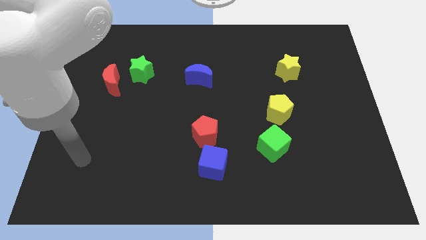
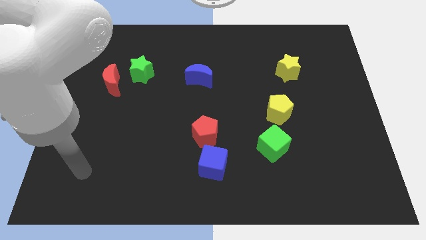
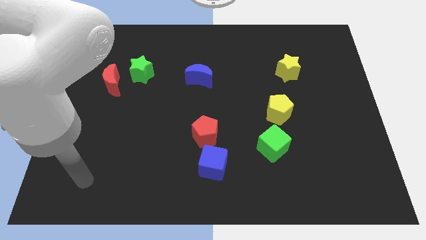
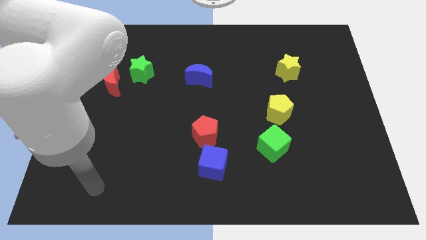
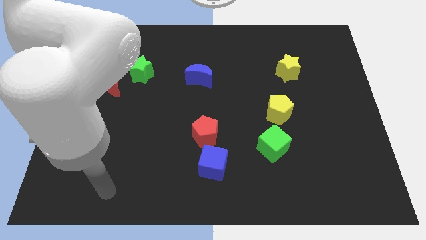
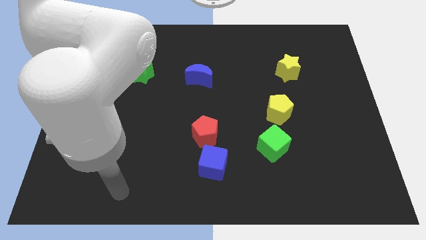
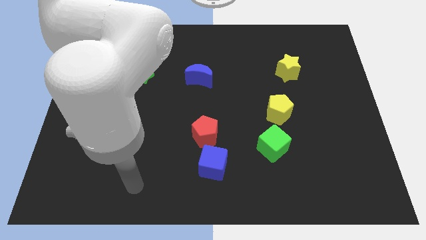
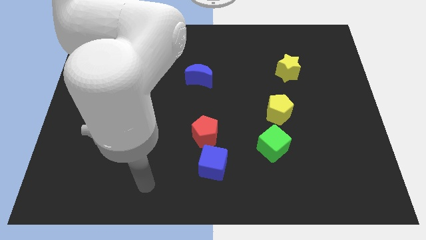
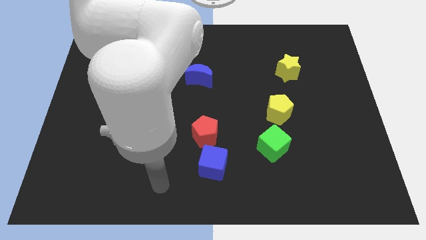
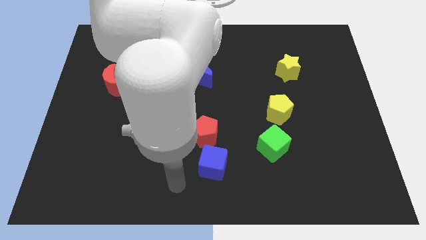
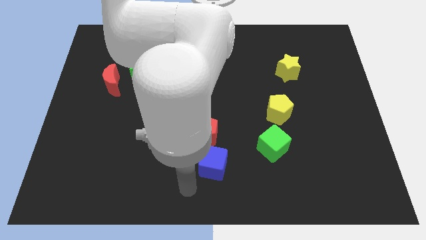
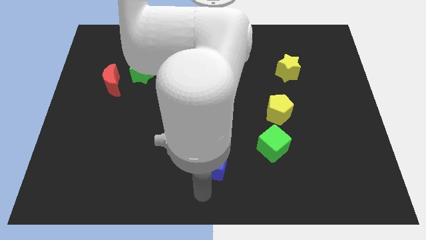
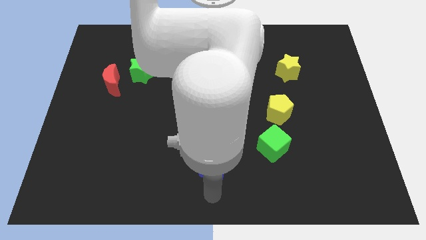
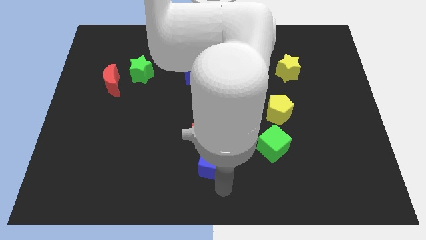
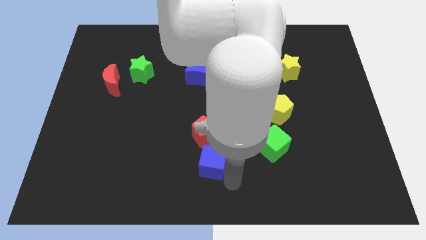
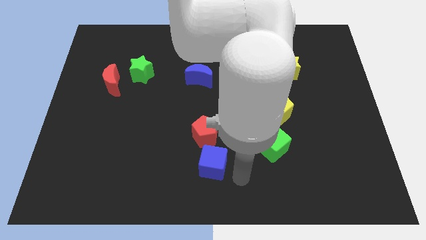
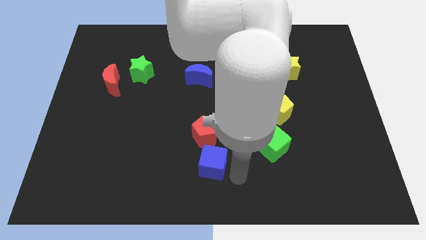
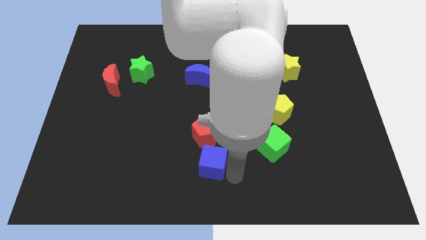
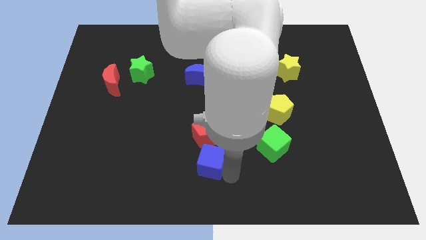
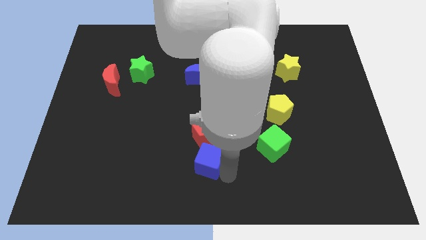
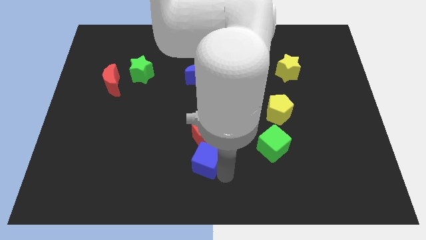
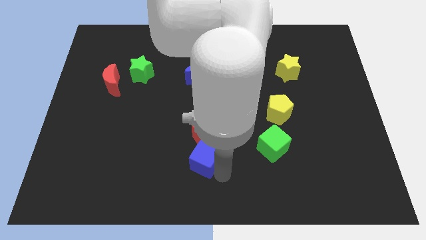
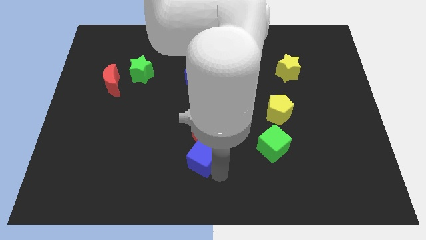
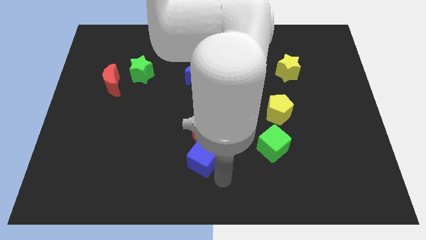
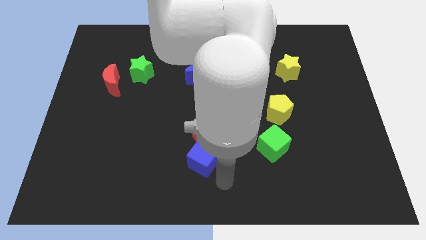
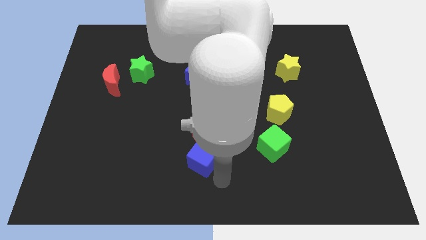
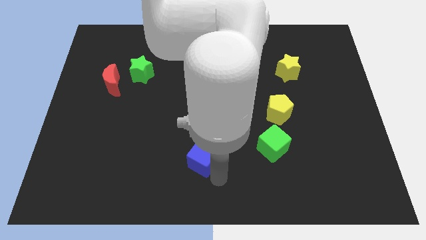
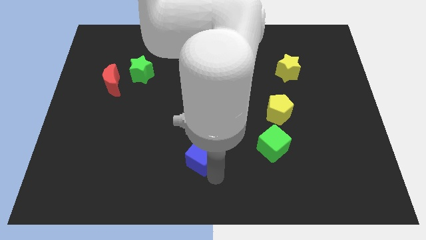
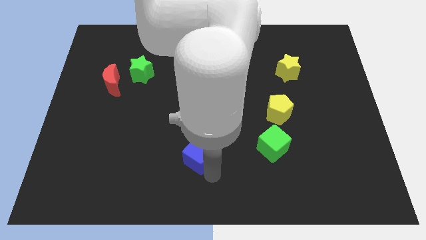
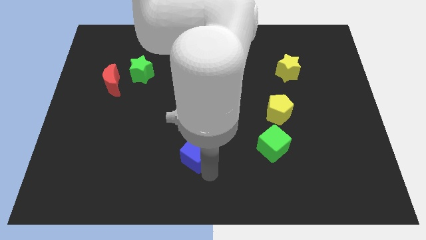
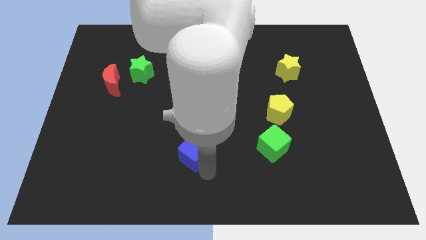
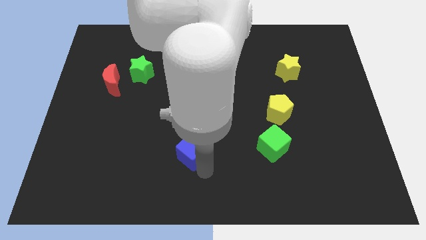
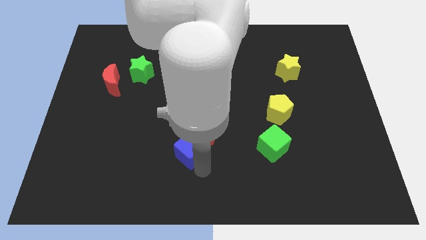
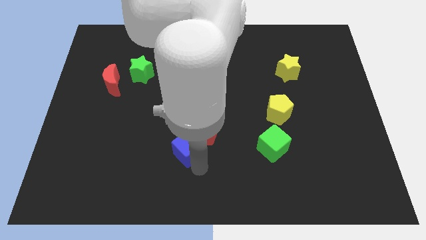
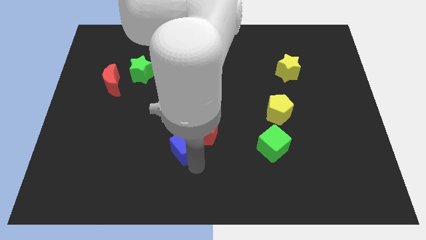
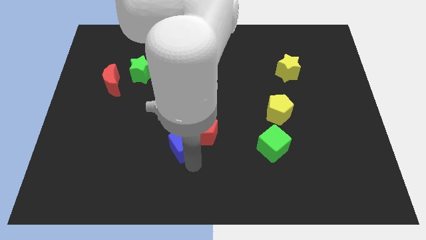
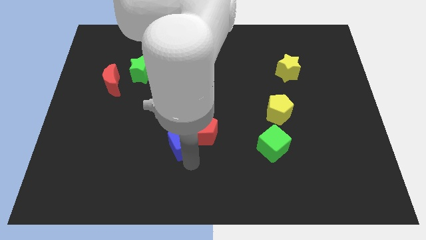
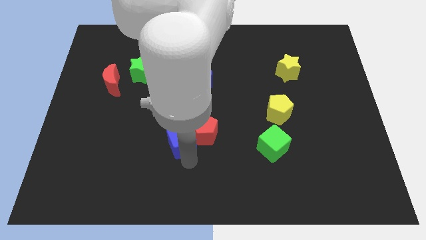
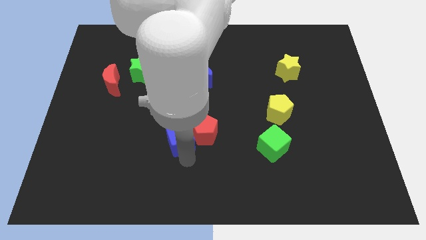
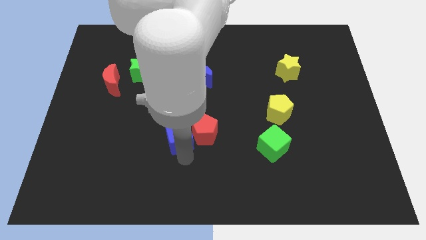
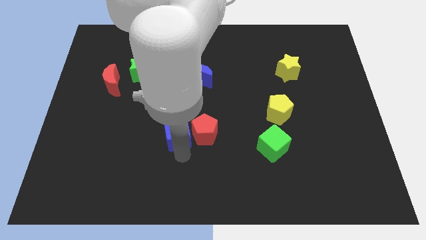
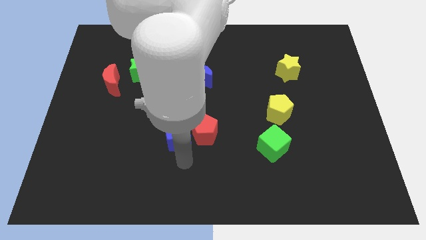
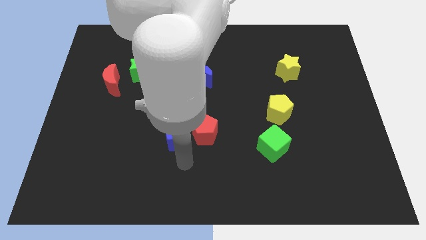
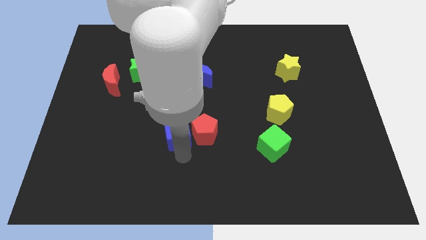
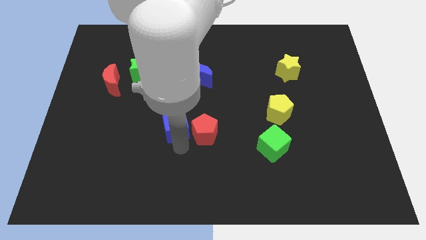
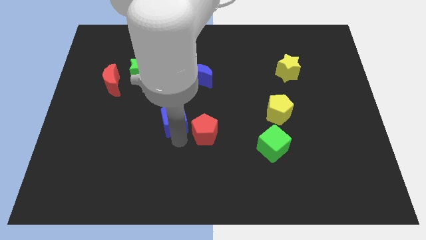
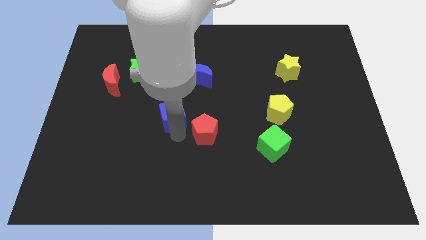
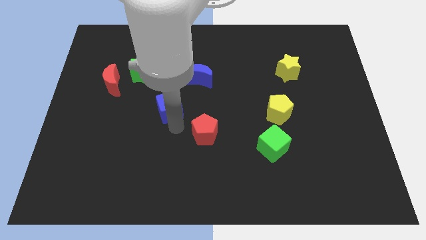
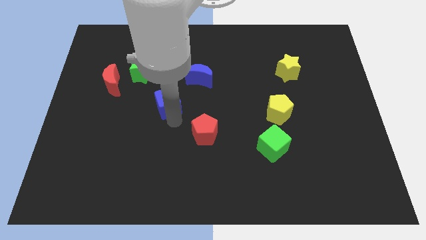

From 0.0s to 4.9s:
put the blue cube to the bottom right side of the green star

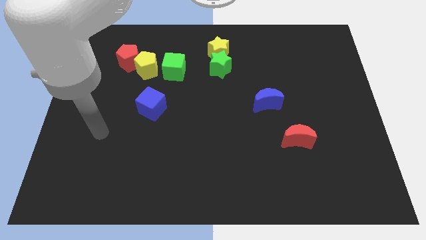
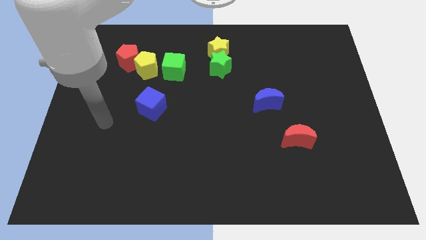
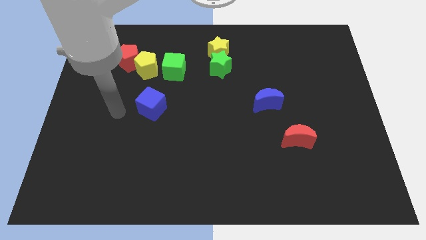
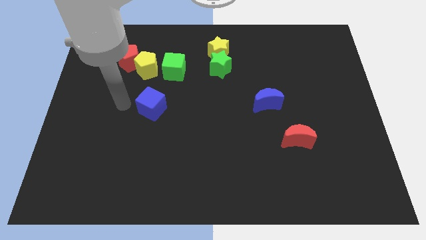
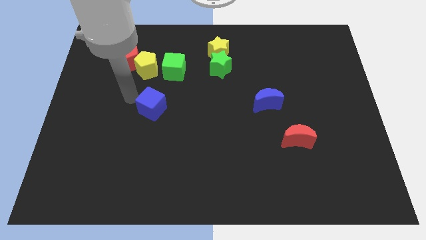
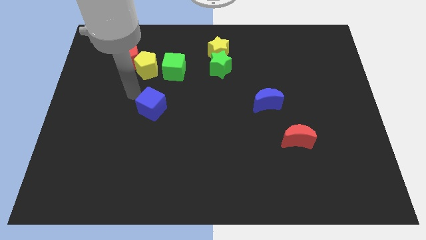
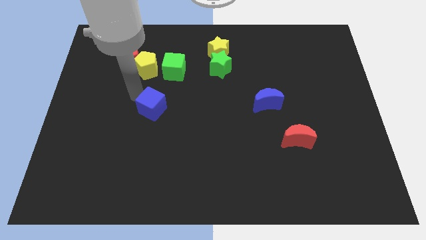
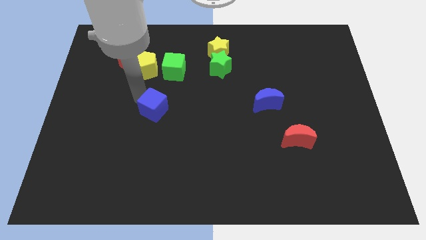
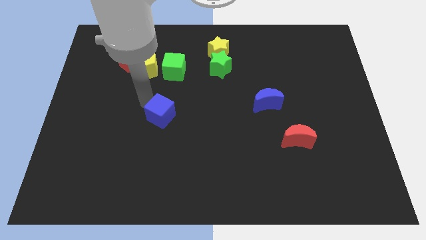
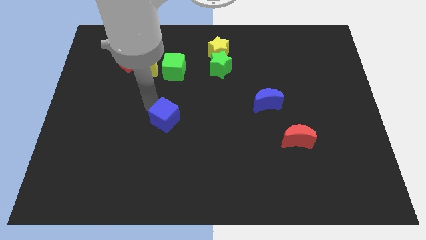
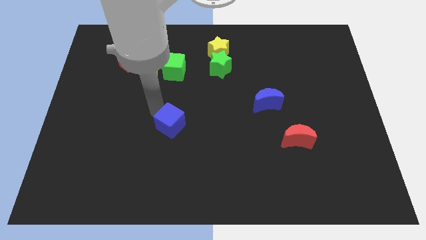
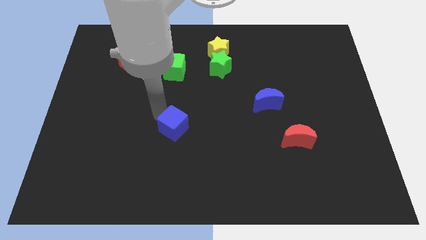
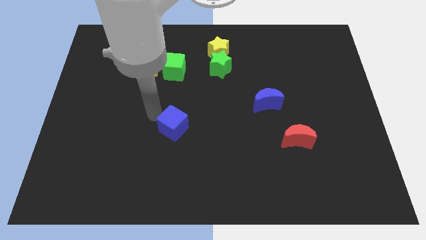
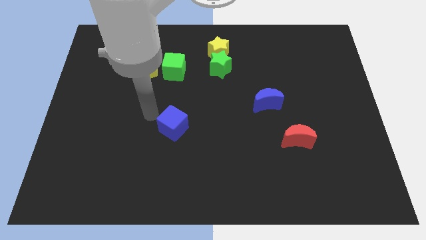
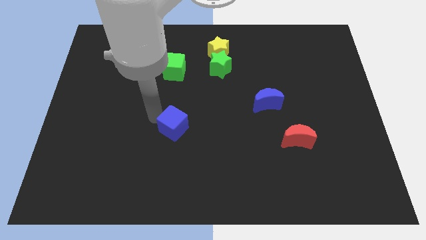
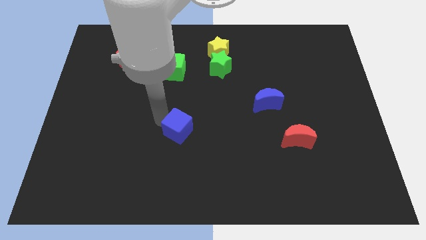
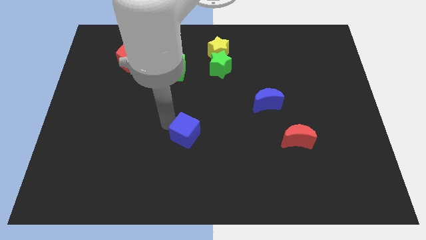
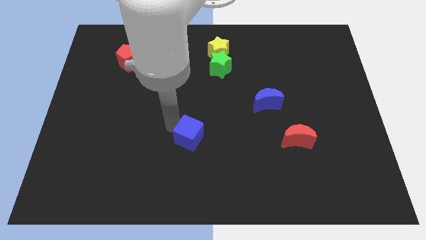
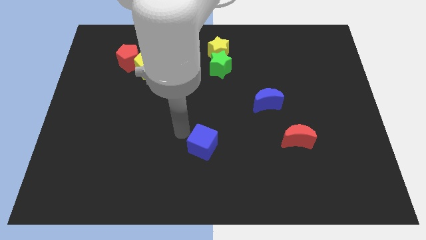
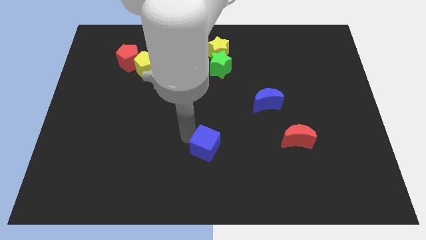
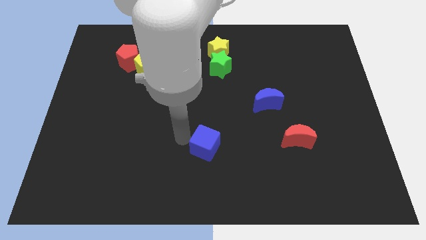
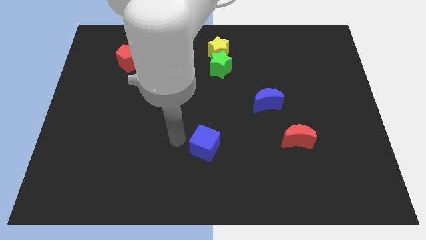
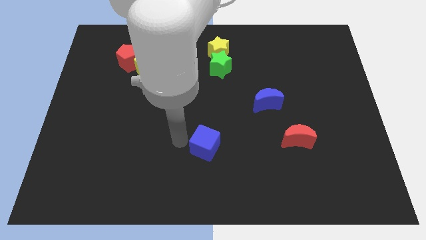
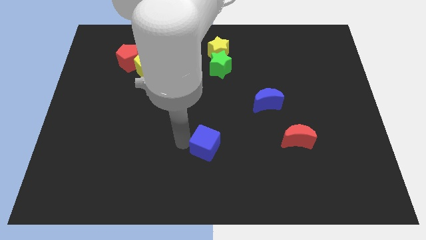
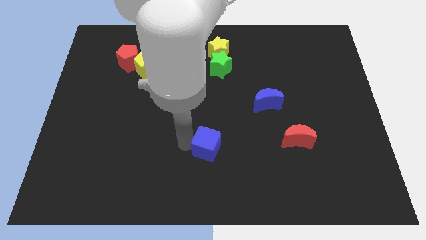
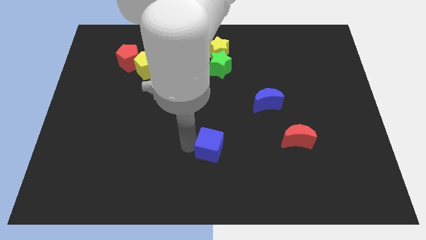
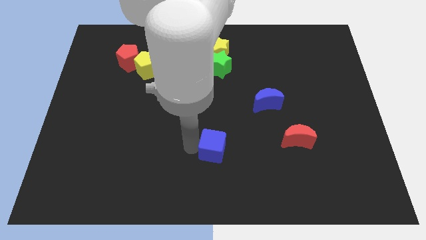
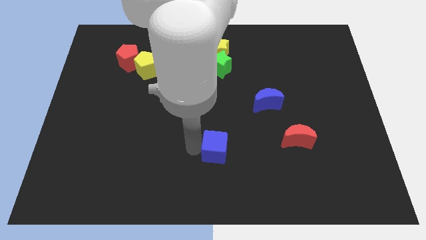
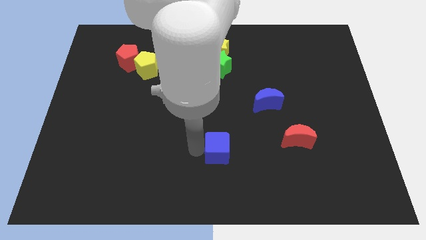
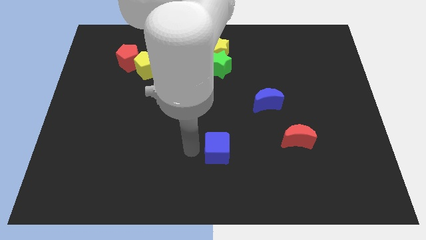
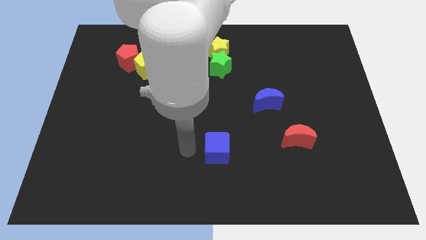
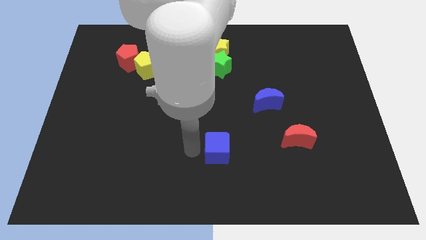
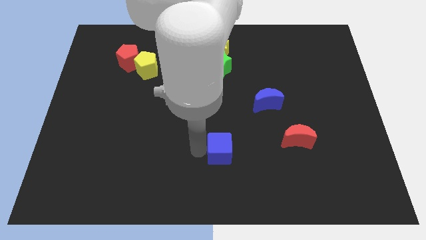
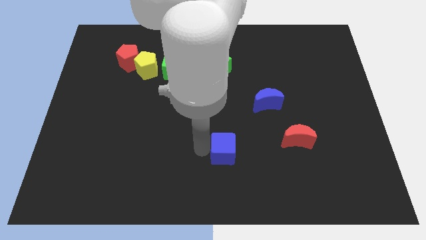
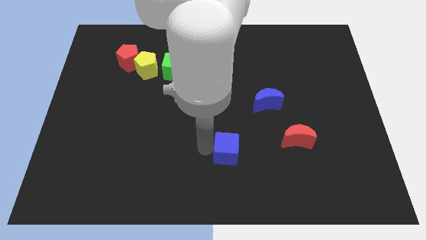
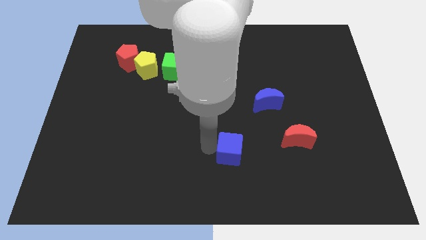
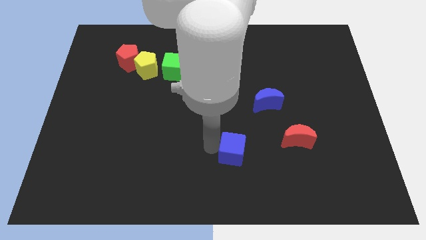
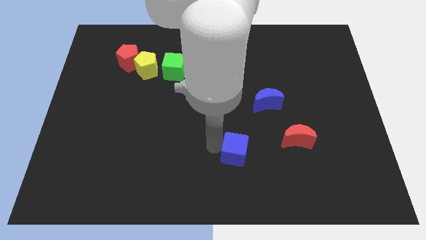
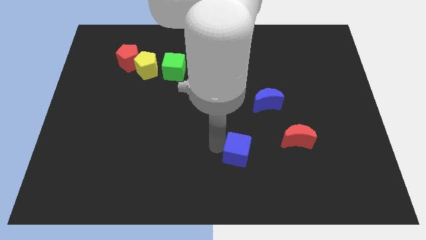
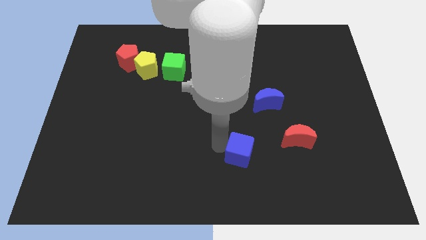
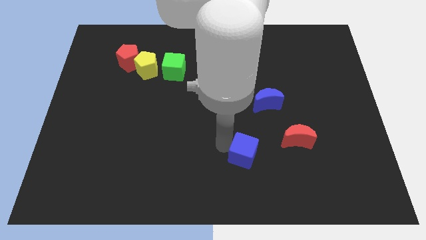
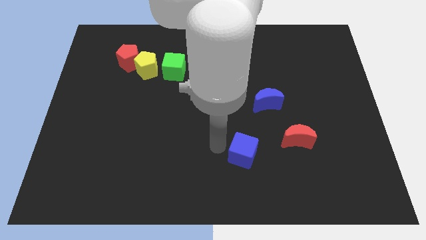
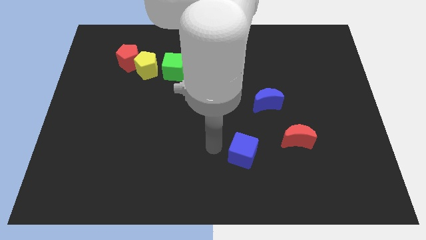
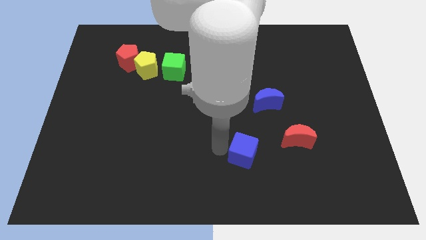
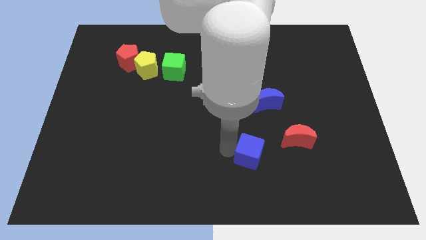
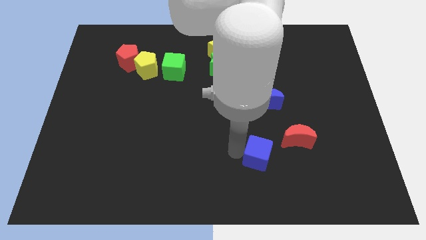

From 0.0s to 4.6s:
put the blue cube to the bottom left of the red moon
